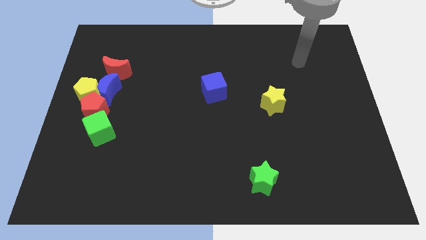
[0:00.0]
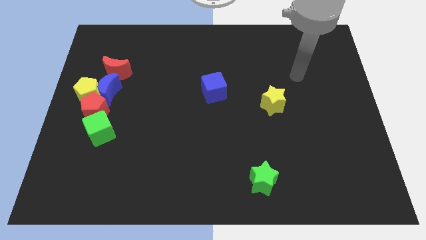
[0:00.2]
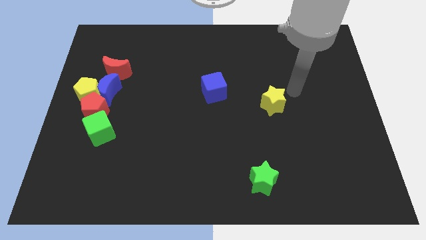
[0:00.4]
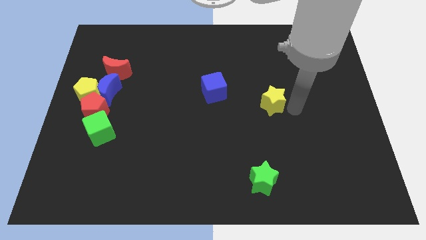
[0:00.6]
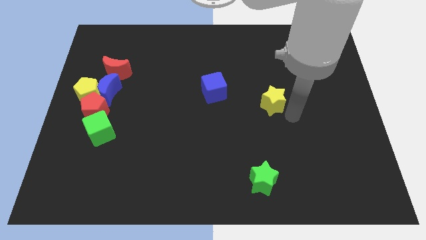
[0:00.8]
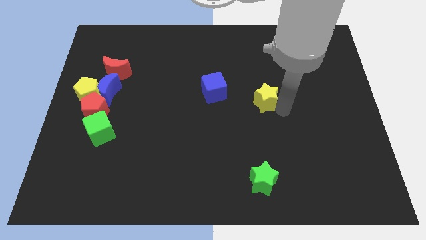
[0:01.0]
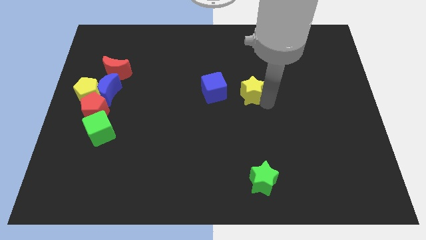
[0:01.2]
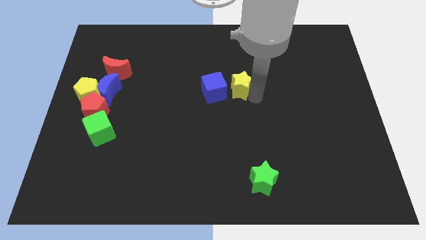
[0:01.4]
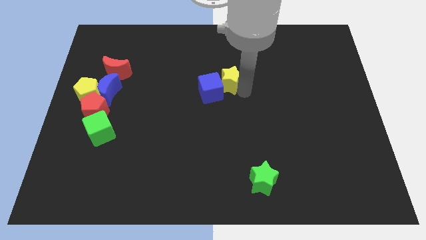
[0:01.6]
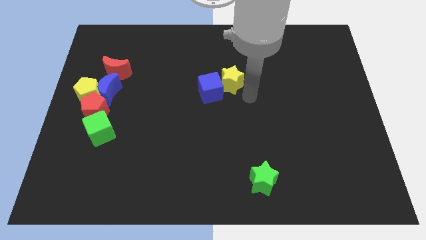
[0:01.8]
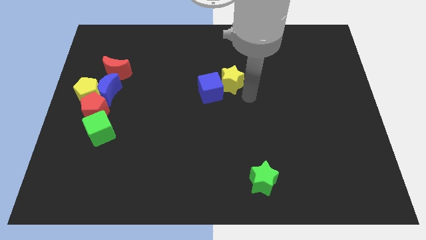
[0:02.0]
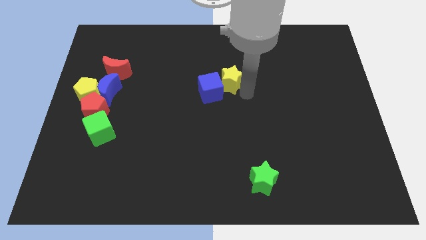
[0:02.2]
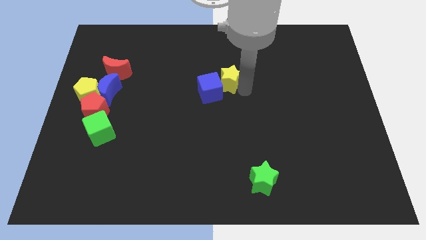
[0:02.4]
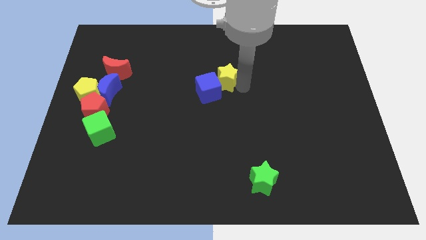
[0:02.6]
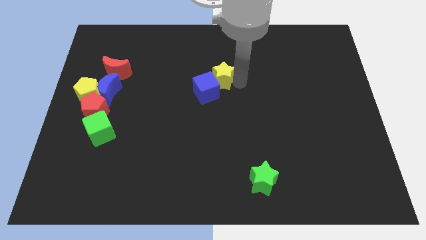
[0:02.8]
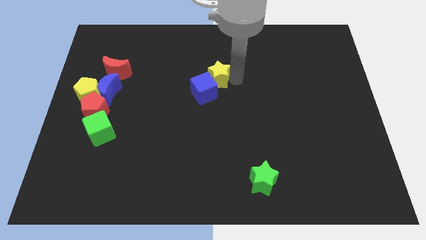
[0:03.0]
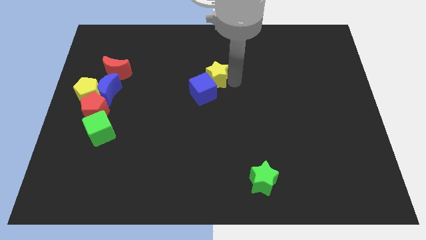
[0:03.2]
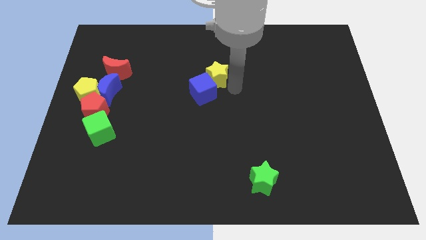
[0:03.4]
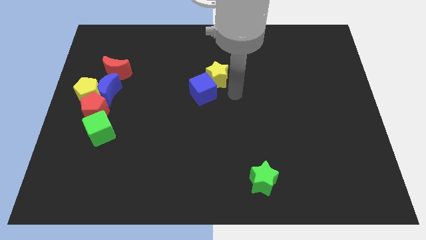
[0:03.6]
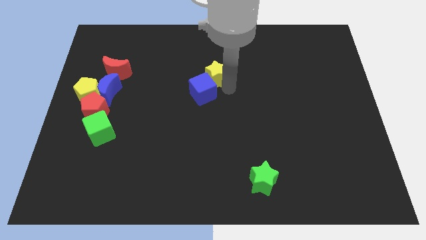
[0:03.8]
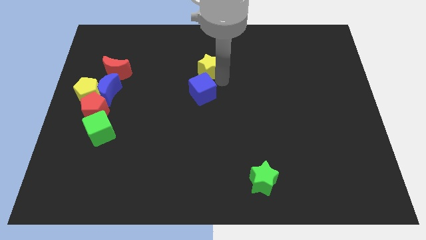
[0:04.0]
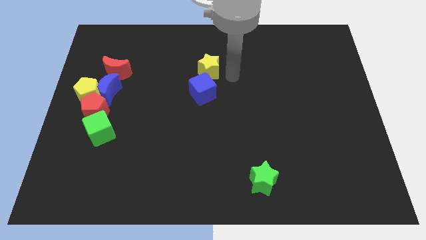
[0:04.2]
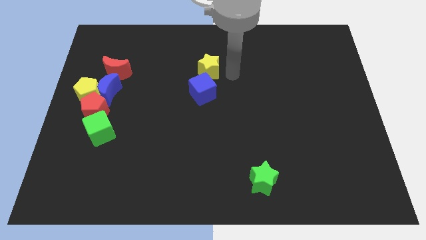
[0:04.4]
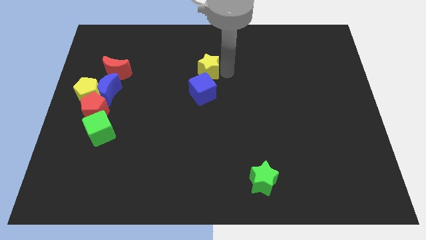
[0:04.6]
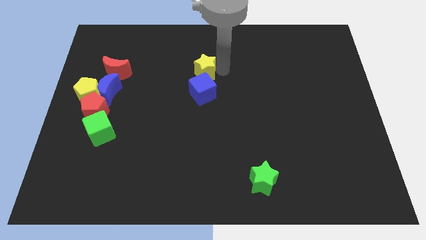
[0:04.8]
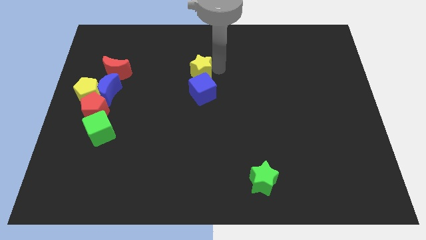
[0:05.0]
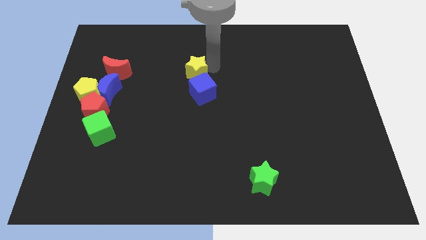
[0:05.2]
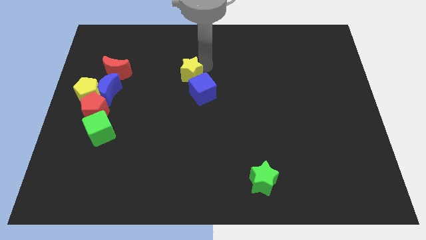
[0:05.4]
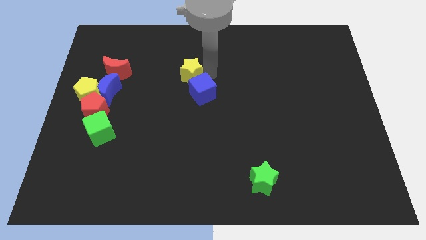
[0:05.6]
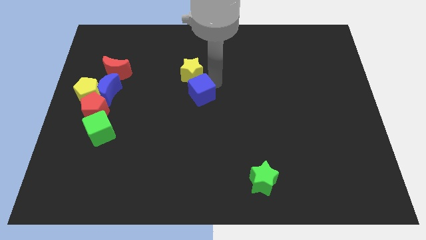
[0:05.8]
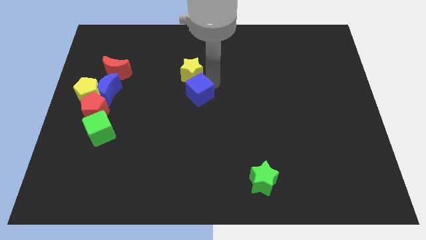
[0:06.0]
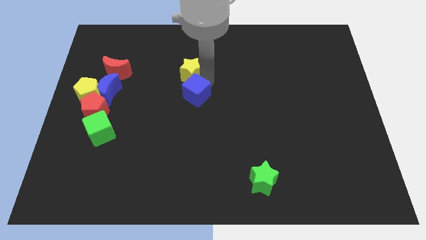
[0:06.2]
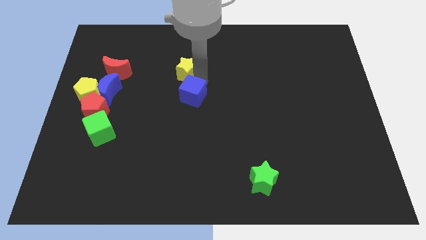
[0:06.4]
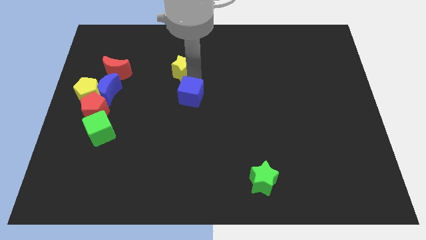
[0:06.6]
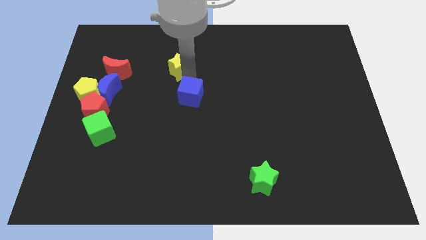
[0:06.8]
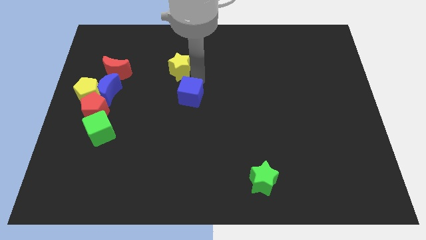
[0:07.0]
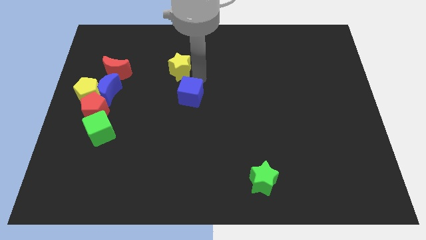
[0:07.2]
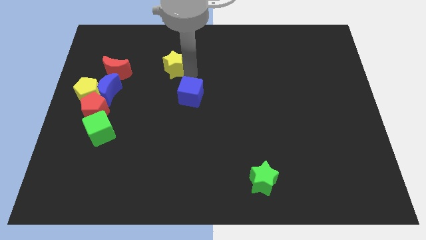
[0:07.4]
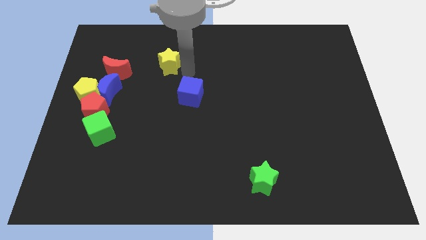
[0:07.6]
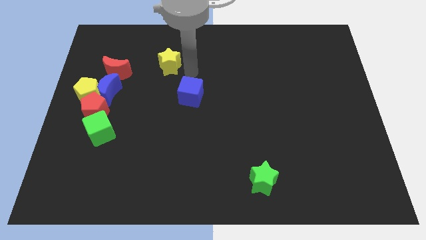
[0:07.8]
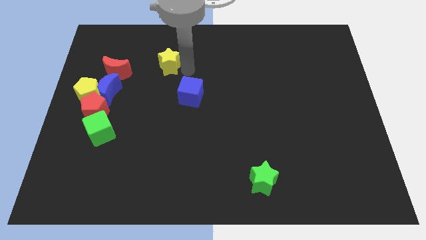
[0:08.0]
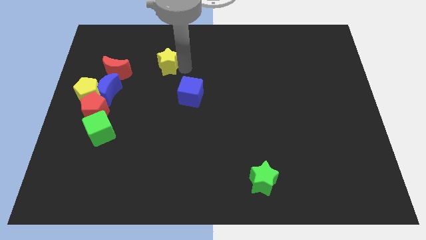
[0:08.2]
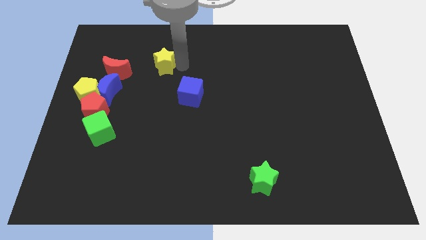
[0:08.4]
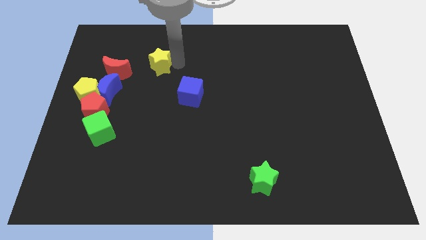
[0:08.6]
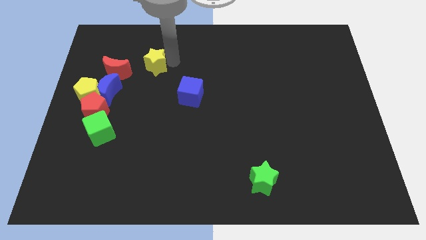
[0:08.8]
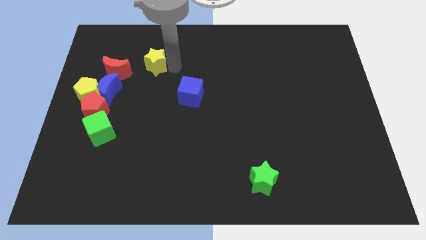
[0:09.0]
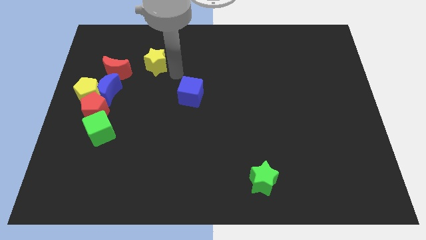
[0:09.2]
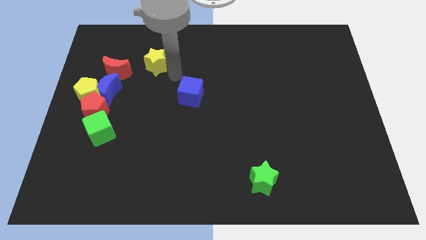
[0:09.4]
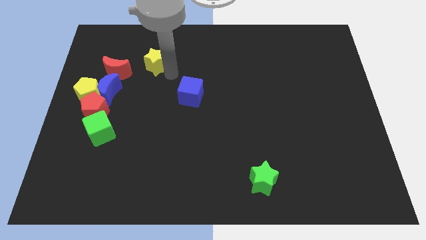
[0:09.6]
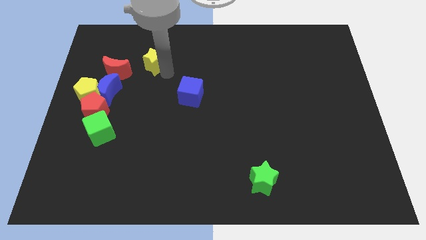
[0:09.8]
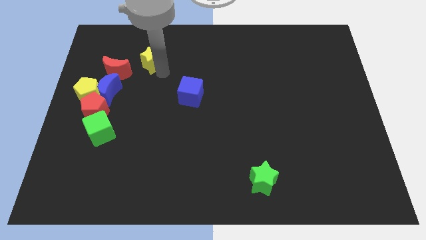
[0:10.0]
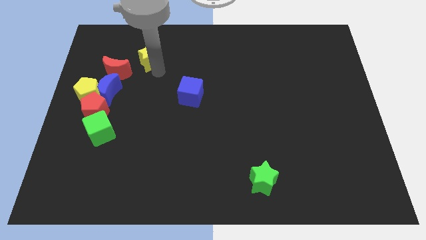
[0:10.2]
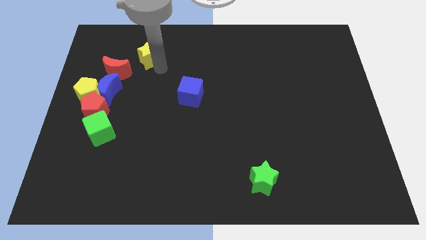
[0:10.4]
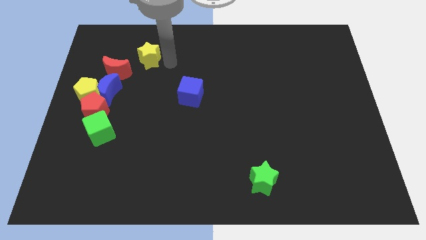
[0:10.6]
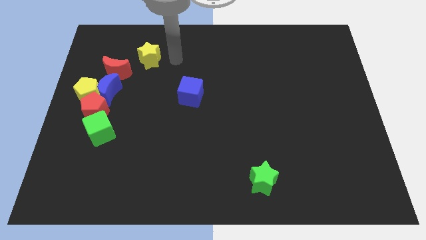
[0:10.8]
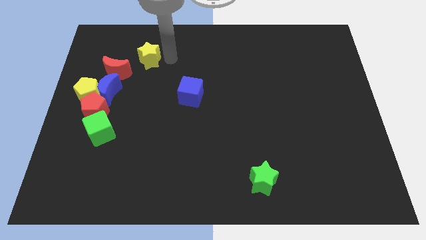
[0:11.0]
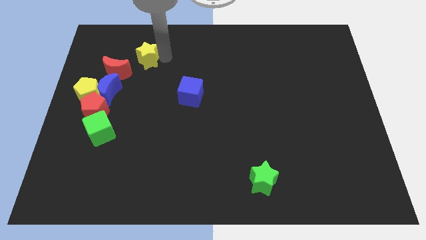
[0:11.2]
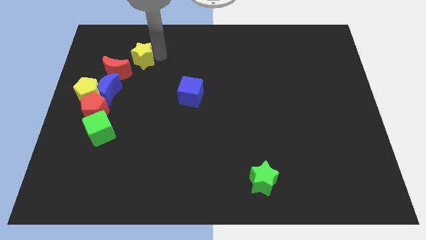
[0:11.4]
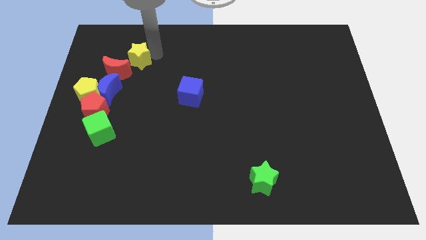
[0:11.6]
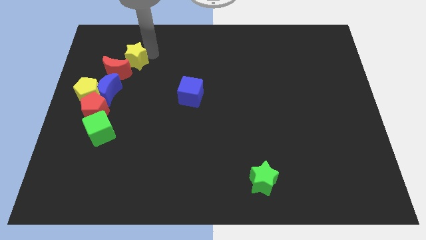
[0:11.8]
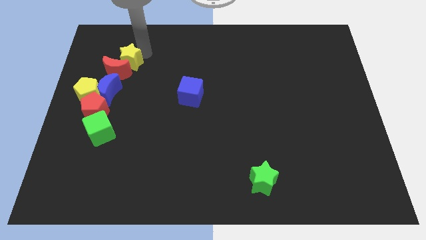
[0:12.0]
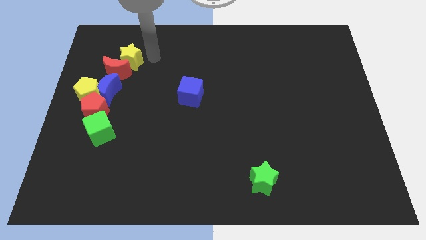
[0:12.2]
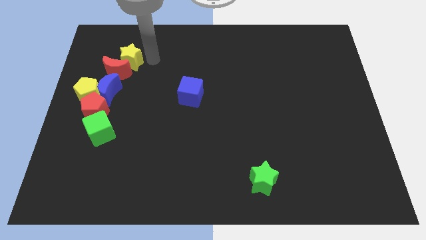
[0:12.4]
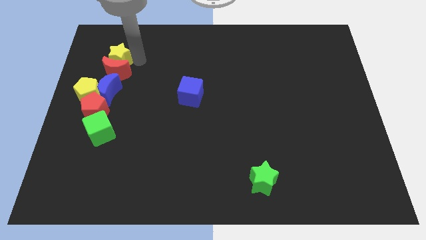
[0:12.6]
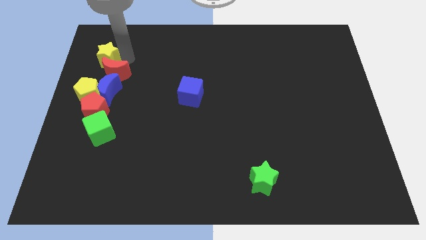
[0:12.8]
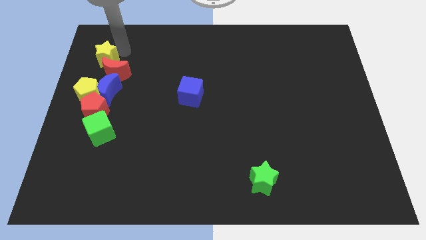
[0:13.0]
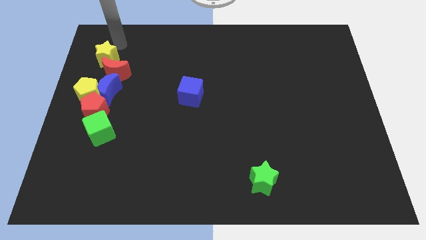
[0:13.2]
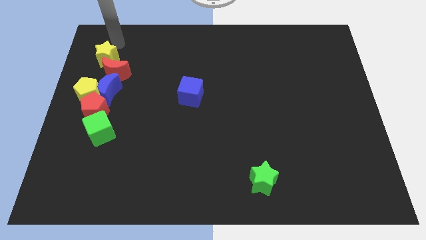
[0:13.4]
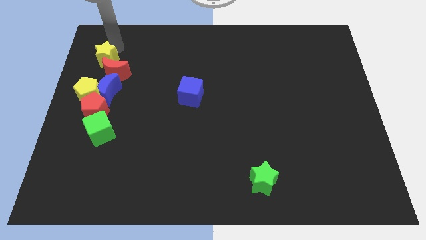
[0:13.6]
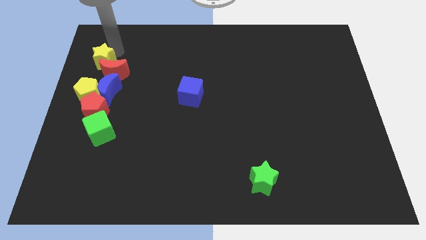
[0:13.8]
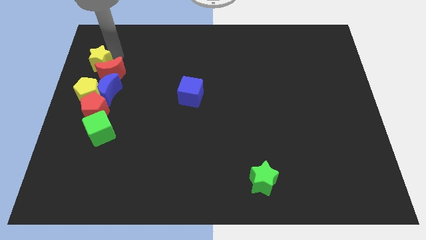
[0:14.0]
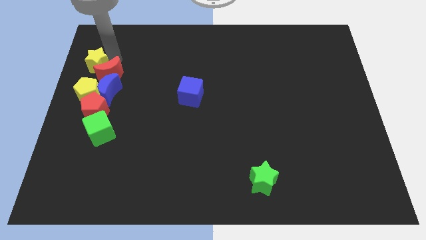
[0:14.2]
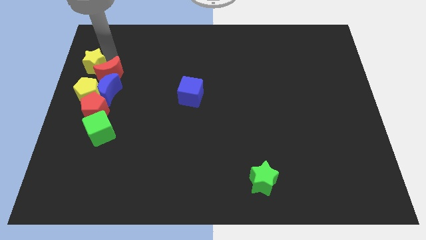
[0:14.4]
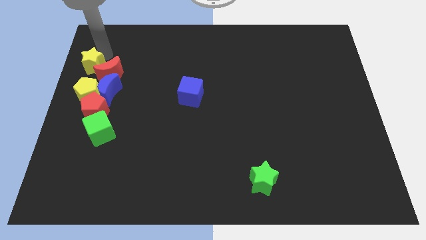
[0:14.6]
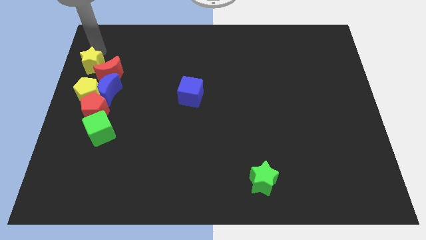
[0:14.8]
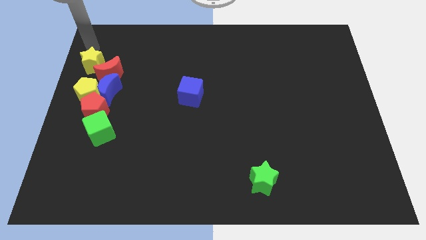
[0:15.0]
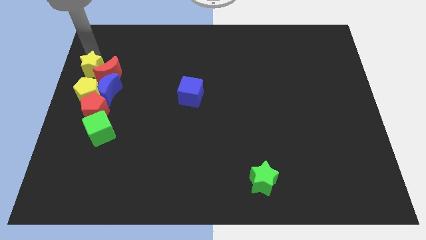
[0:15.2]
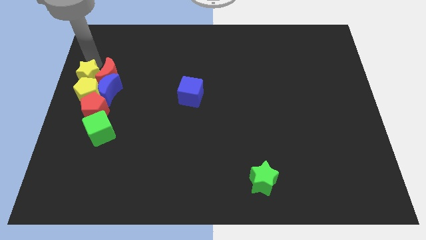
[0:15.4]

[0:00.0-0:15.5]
slide the yellow star next to the yellow pentagon

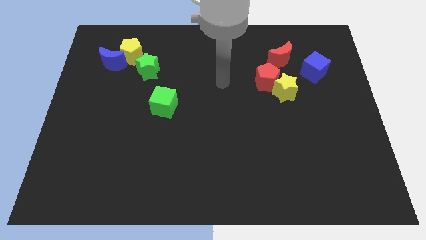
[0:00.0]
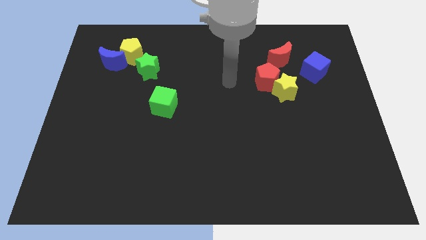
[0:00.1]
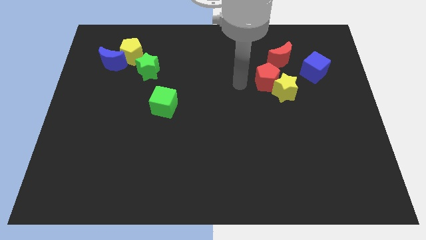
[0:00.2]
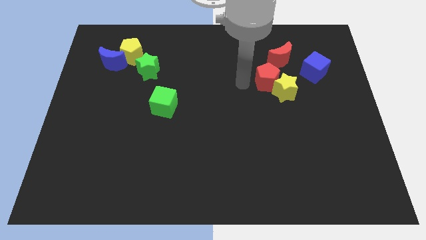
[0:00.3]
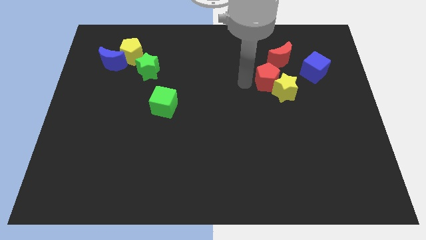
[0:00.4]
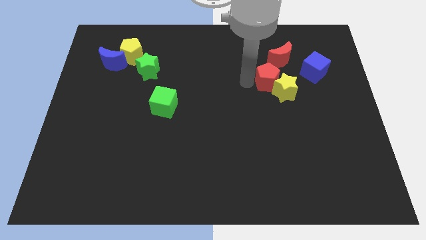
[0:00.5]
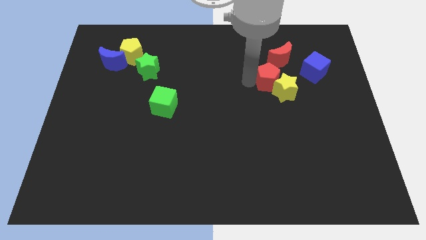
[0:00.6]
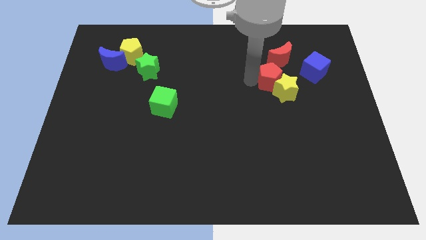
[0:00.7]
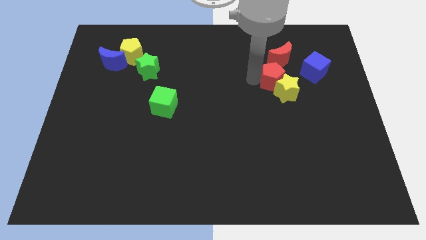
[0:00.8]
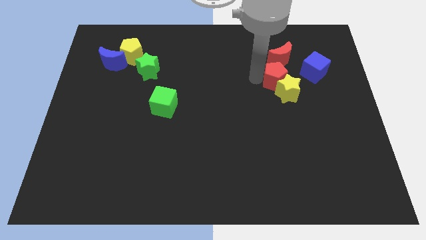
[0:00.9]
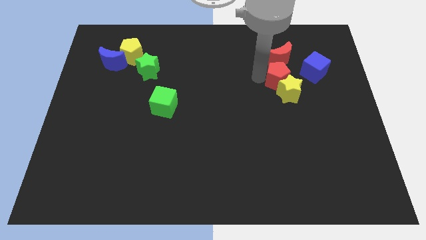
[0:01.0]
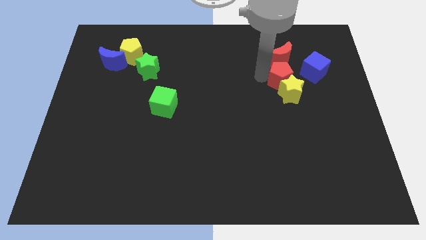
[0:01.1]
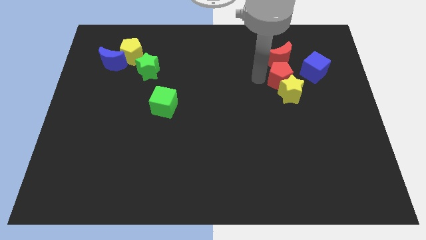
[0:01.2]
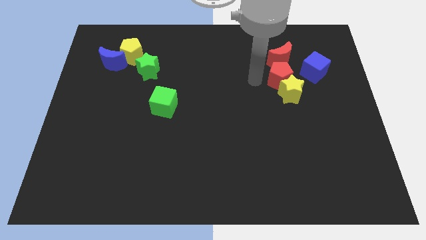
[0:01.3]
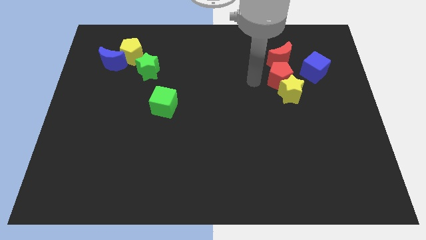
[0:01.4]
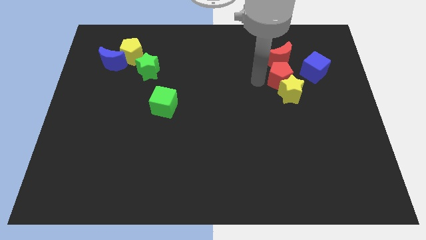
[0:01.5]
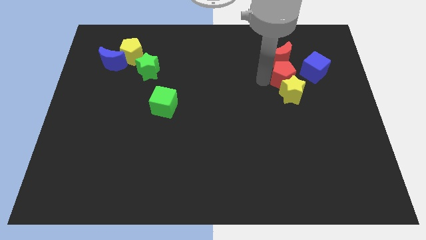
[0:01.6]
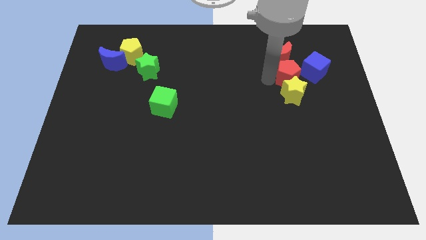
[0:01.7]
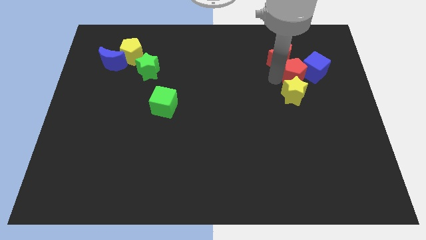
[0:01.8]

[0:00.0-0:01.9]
slide the red pentagon next to the blue cube
